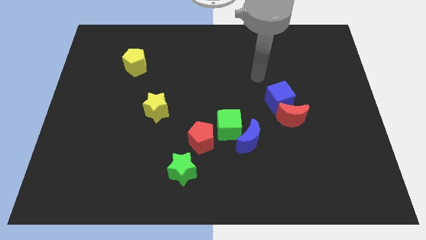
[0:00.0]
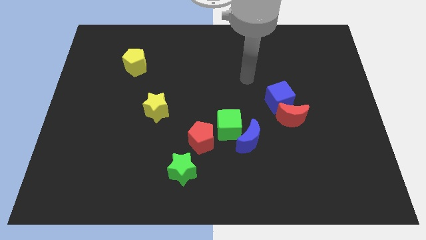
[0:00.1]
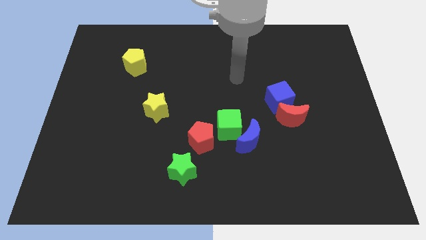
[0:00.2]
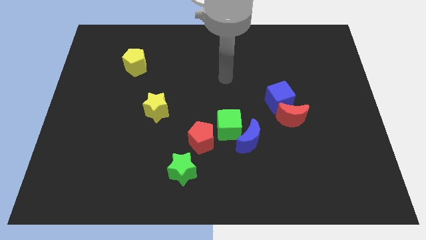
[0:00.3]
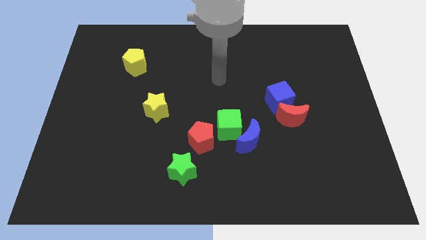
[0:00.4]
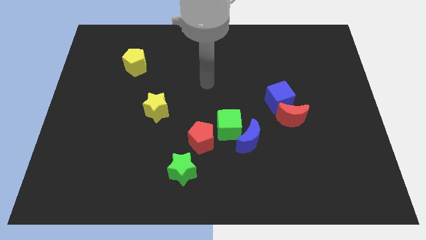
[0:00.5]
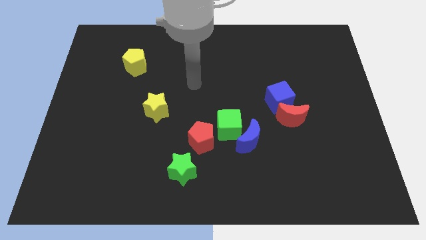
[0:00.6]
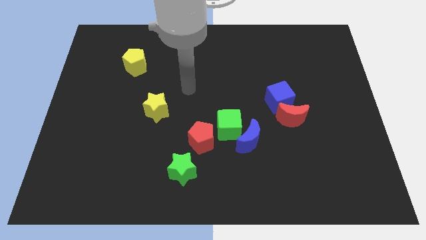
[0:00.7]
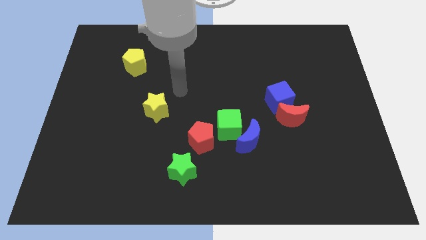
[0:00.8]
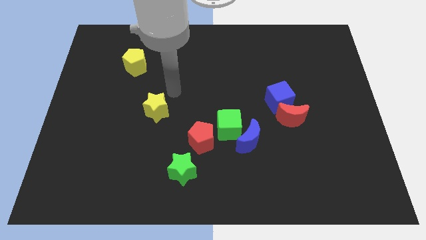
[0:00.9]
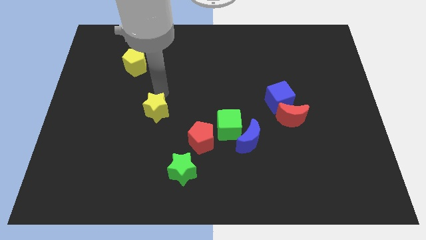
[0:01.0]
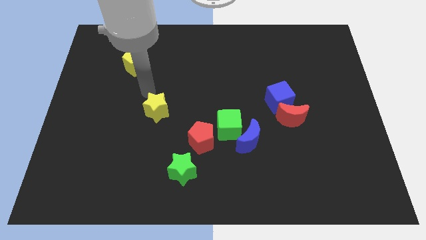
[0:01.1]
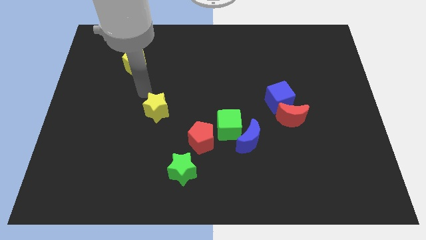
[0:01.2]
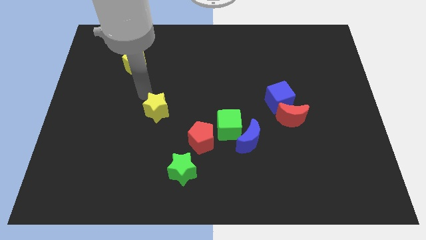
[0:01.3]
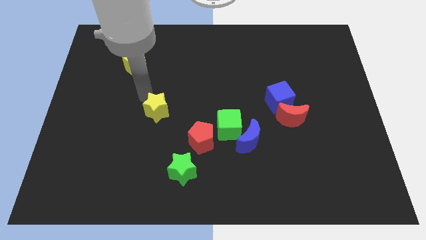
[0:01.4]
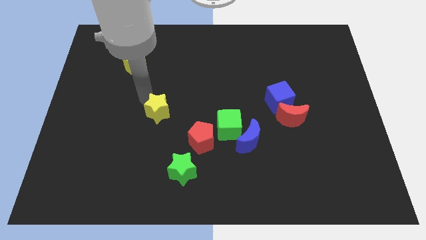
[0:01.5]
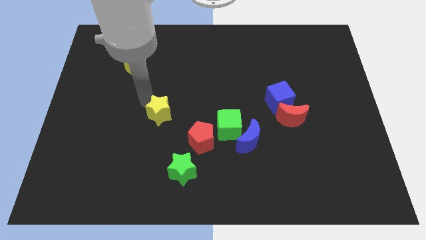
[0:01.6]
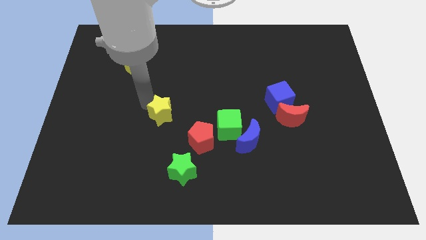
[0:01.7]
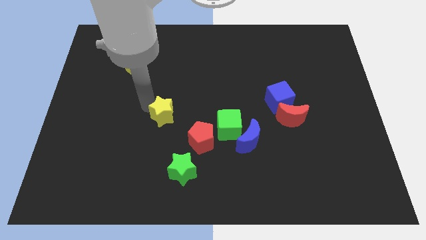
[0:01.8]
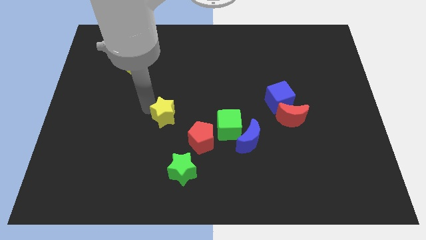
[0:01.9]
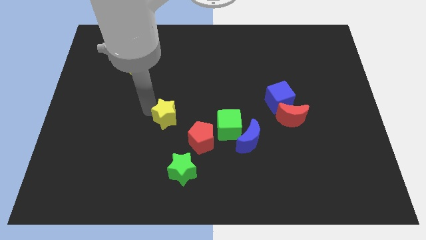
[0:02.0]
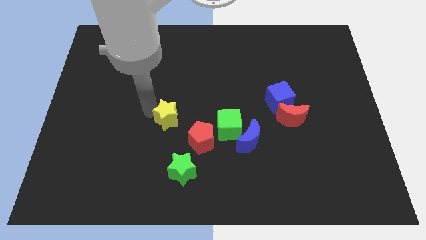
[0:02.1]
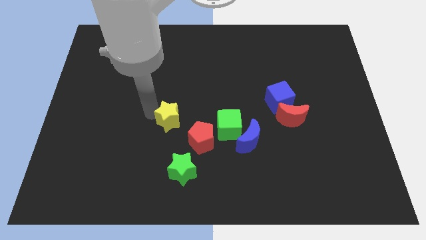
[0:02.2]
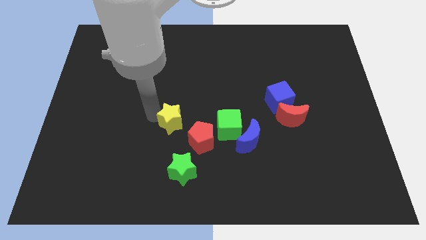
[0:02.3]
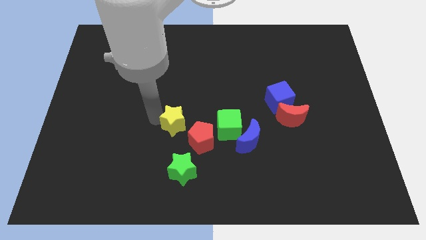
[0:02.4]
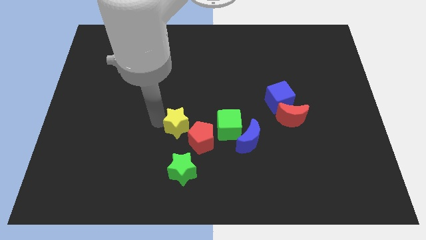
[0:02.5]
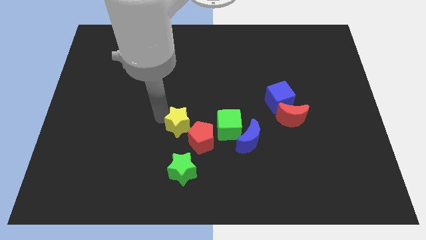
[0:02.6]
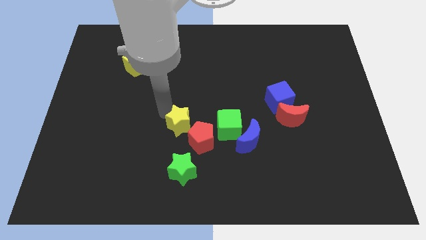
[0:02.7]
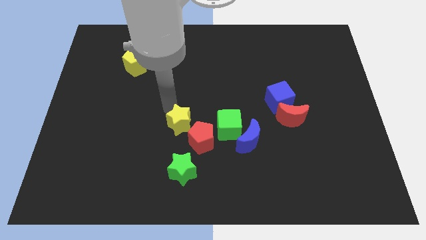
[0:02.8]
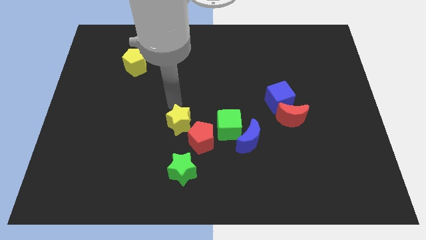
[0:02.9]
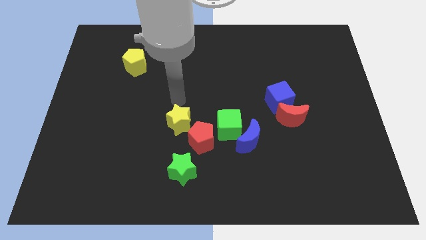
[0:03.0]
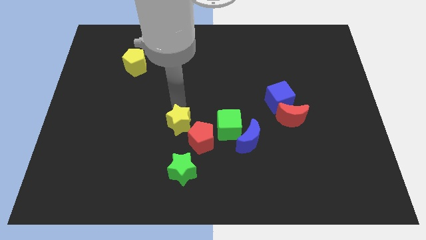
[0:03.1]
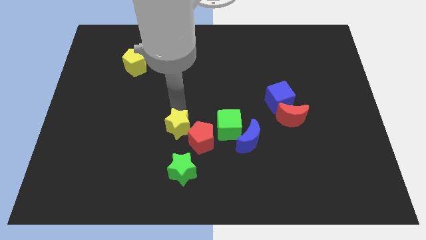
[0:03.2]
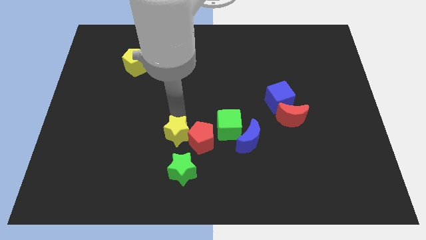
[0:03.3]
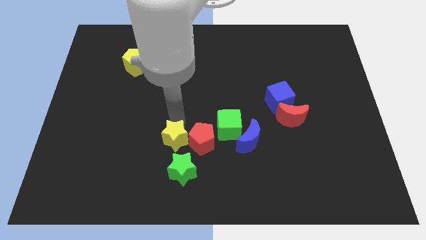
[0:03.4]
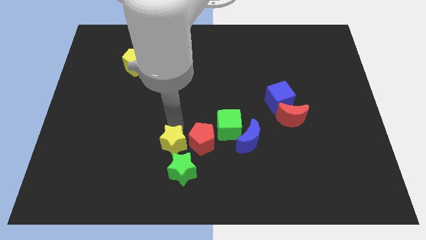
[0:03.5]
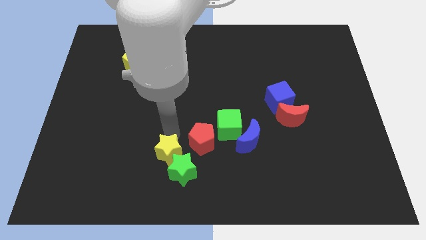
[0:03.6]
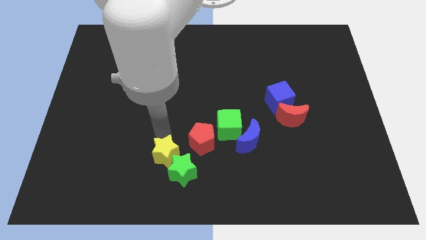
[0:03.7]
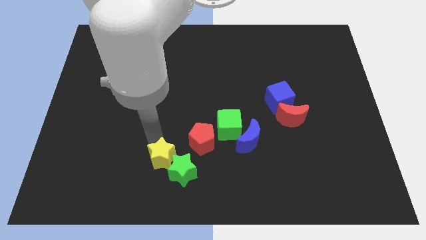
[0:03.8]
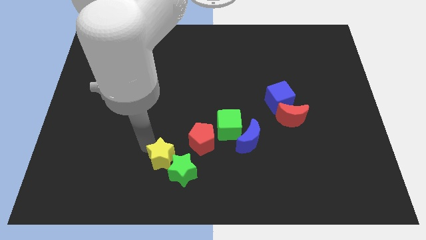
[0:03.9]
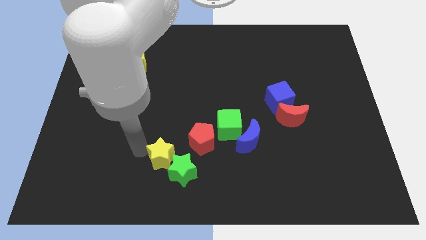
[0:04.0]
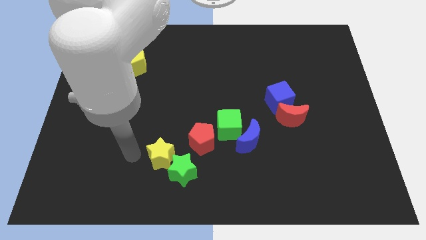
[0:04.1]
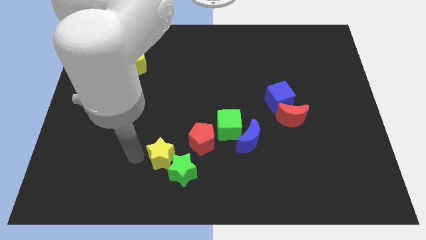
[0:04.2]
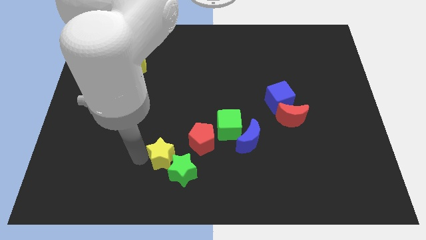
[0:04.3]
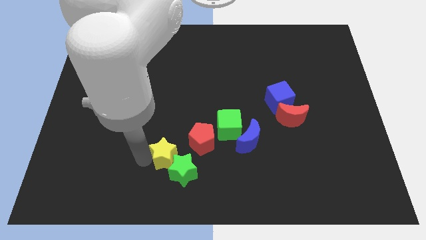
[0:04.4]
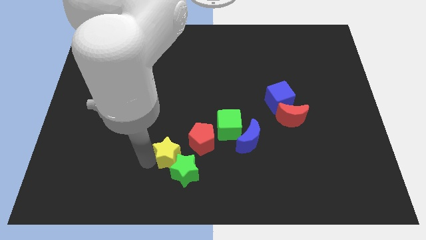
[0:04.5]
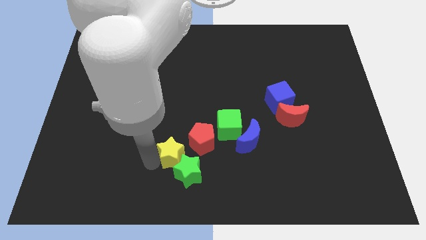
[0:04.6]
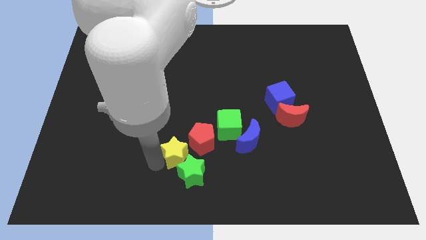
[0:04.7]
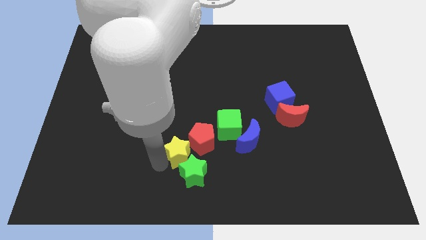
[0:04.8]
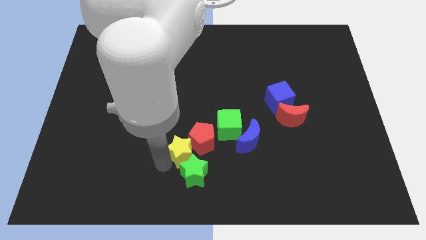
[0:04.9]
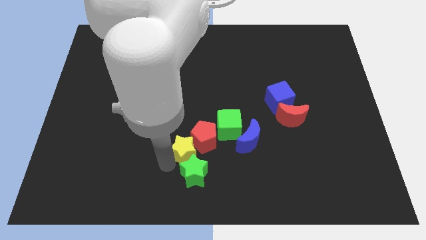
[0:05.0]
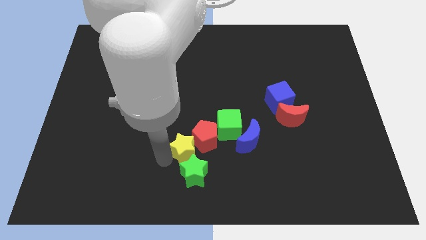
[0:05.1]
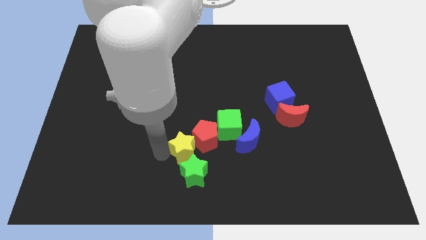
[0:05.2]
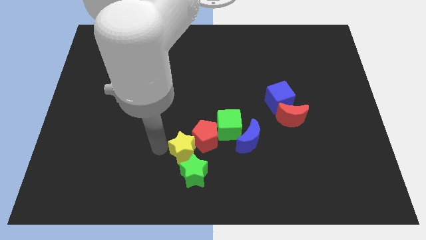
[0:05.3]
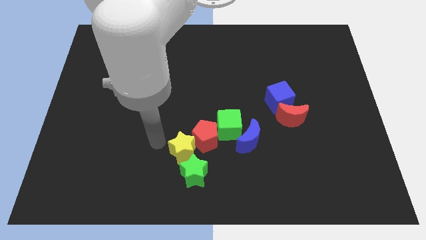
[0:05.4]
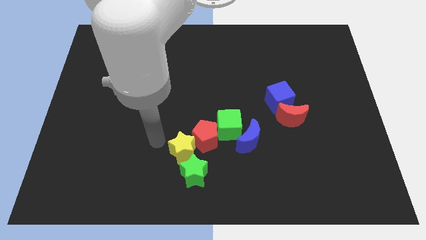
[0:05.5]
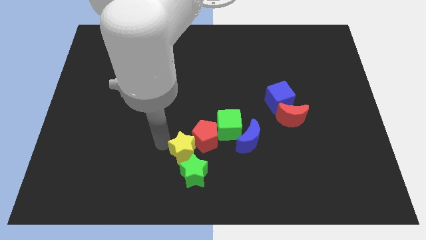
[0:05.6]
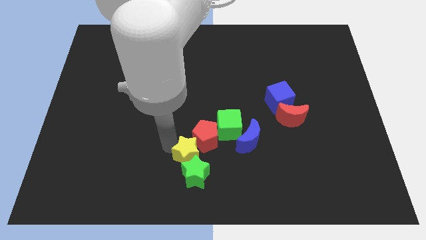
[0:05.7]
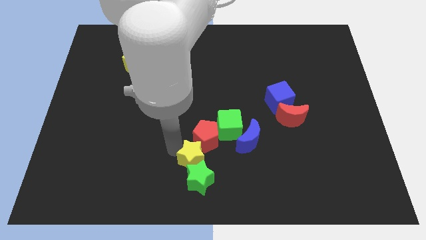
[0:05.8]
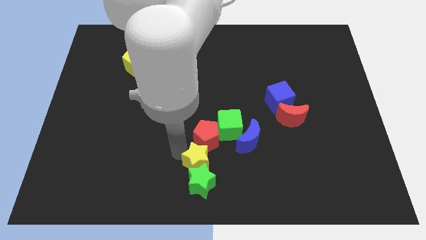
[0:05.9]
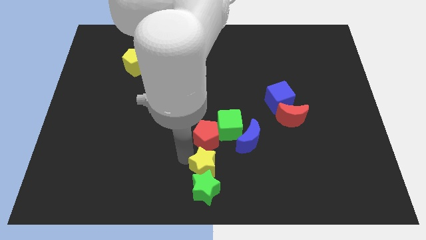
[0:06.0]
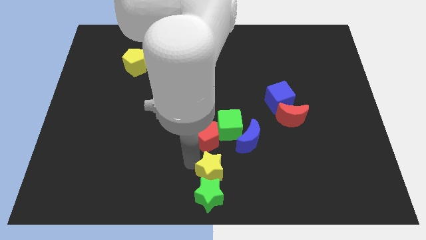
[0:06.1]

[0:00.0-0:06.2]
move the yellow star to the bottom of the green cube

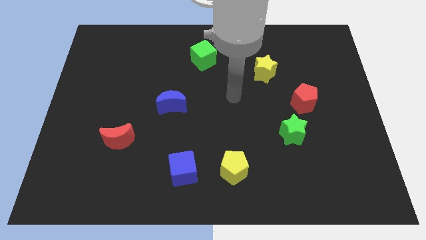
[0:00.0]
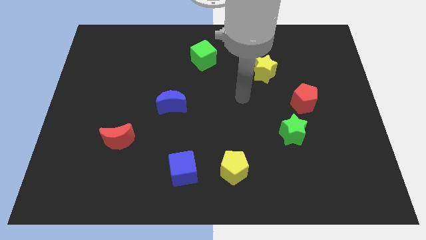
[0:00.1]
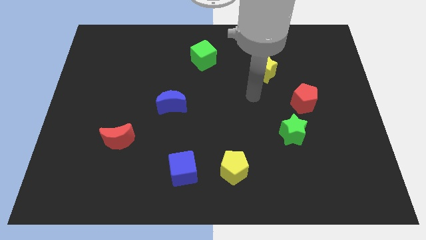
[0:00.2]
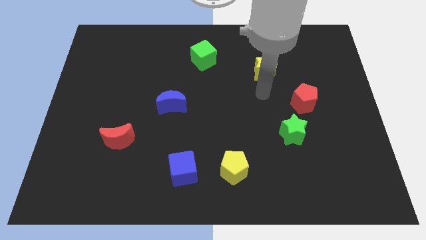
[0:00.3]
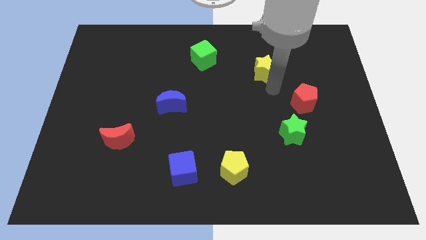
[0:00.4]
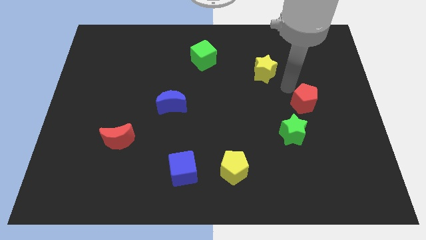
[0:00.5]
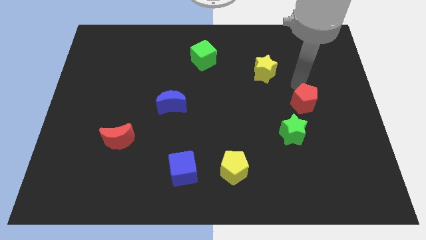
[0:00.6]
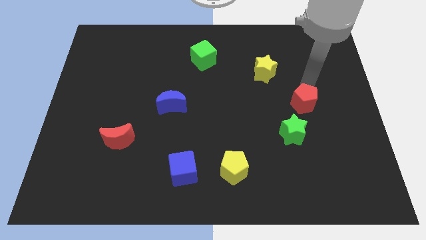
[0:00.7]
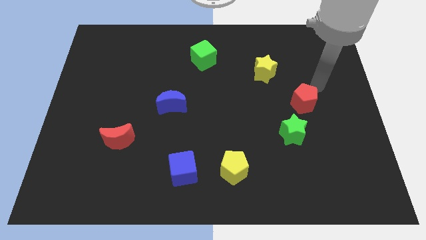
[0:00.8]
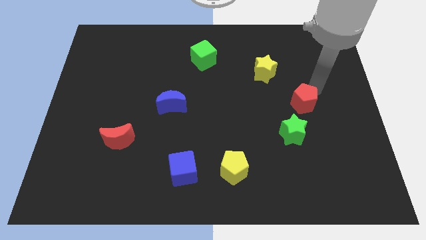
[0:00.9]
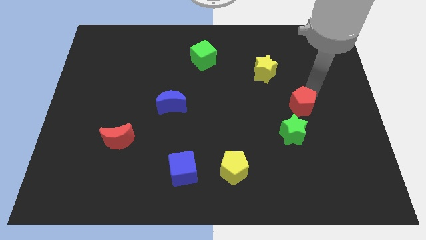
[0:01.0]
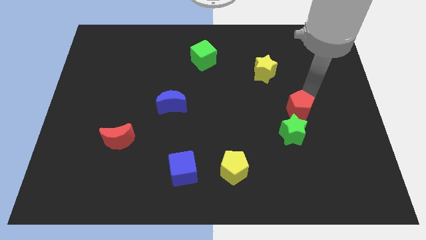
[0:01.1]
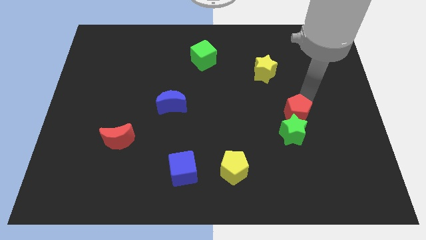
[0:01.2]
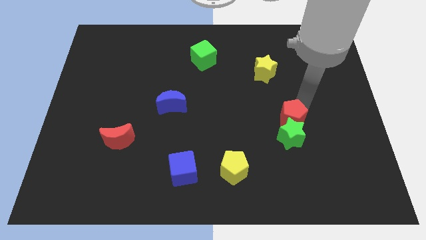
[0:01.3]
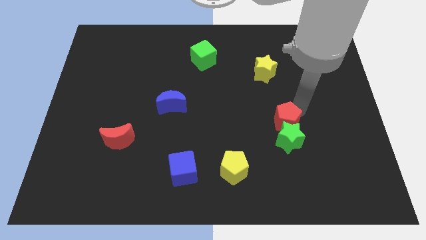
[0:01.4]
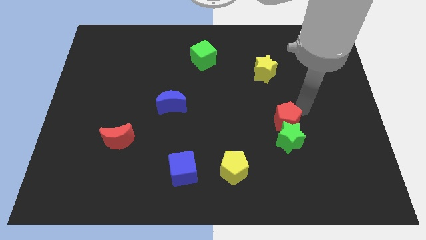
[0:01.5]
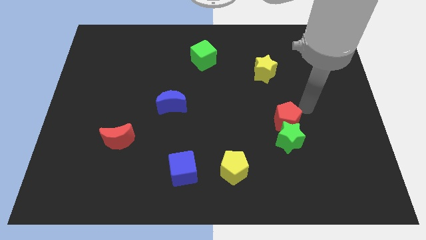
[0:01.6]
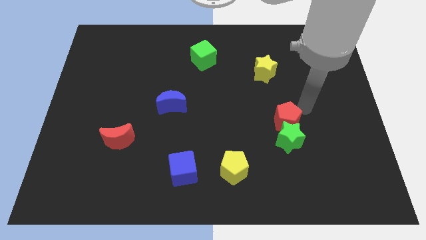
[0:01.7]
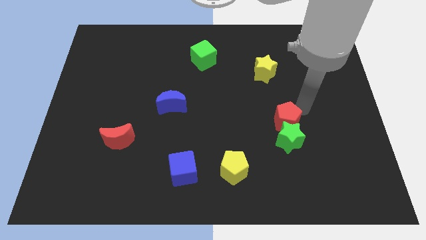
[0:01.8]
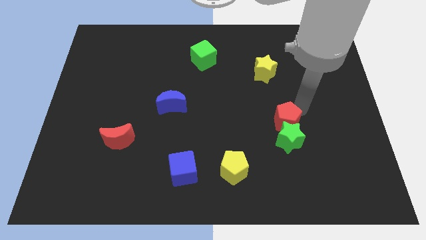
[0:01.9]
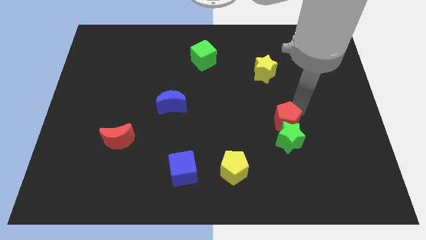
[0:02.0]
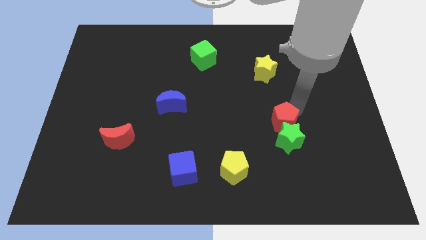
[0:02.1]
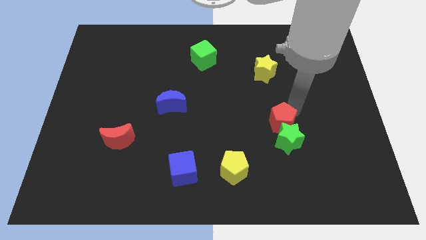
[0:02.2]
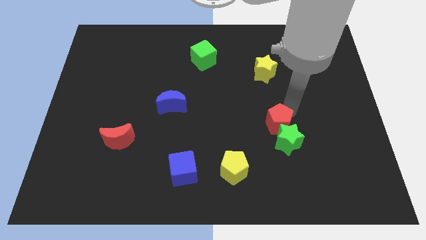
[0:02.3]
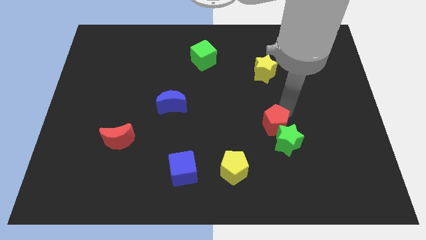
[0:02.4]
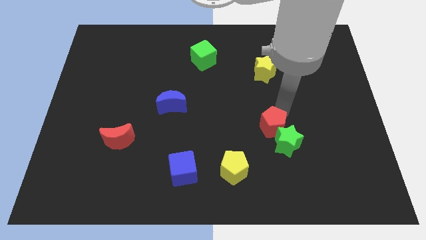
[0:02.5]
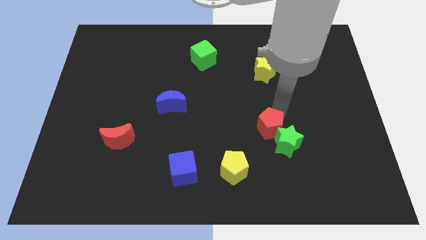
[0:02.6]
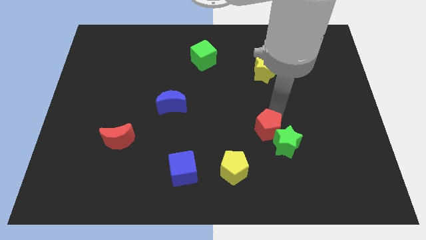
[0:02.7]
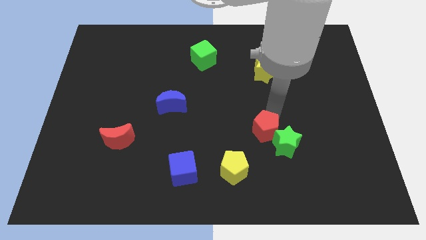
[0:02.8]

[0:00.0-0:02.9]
slide the red pentagon to the top right of the yellow pentagon
